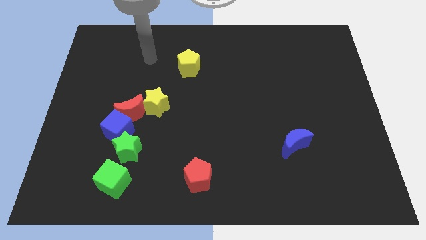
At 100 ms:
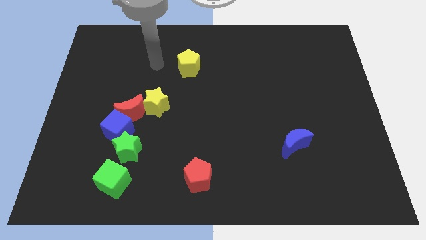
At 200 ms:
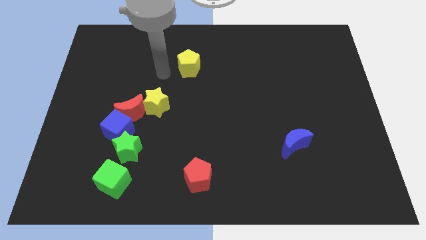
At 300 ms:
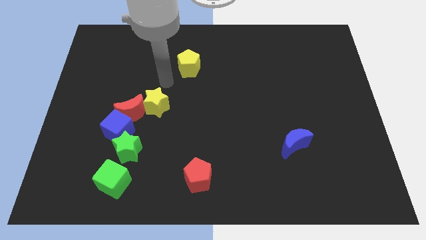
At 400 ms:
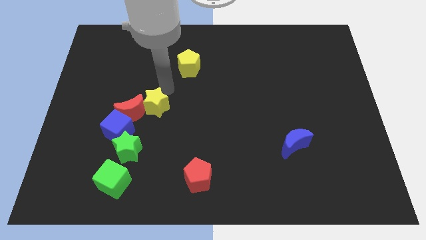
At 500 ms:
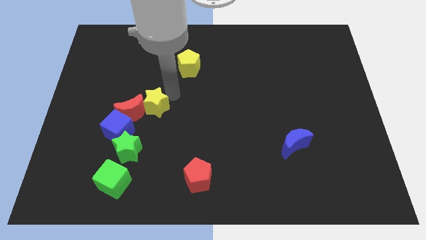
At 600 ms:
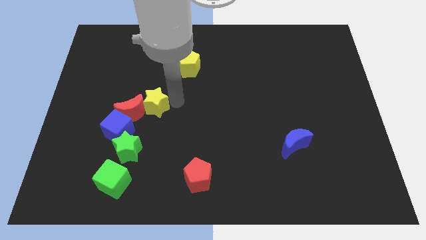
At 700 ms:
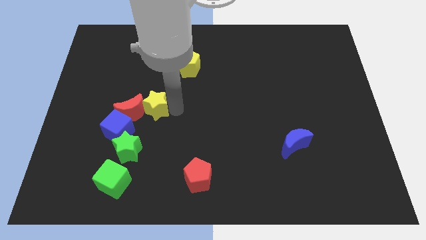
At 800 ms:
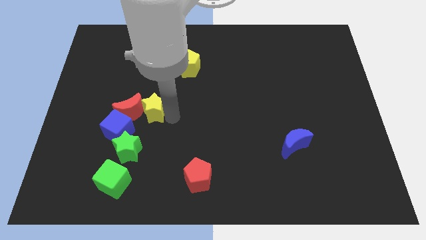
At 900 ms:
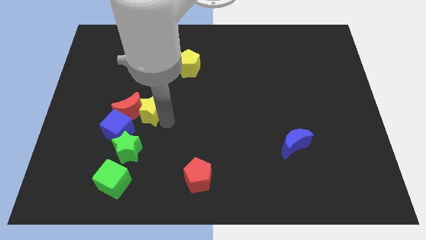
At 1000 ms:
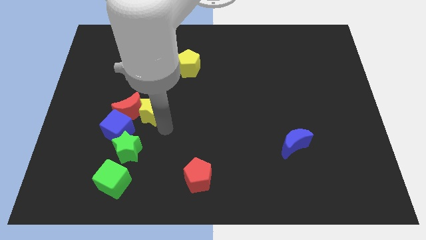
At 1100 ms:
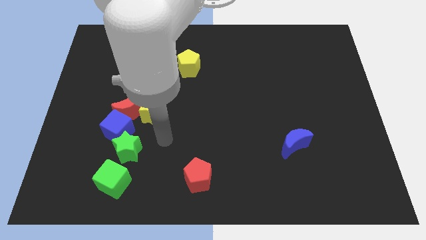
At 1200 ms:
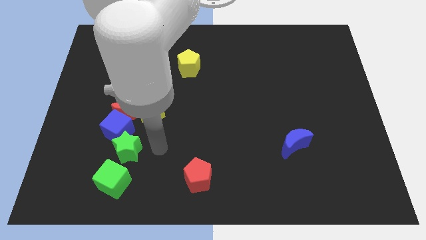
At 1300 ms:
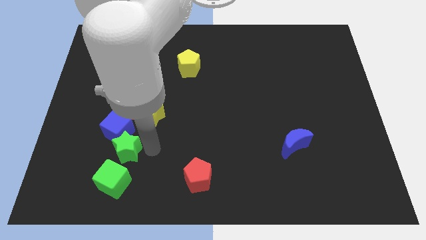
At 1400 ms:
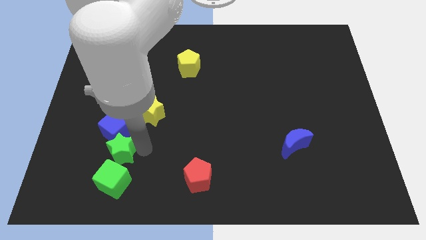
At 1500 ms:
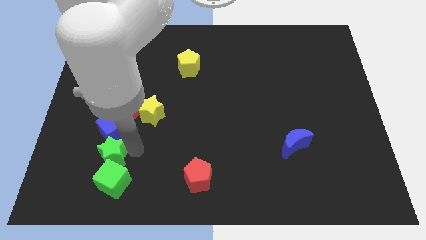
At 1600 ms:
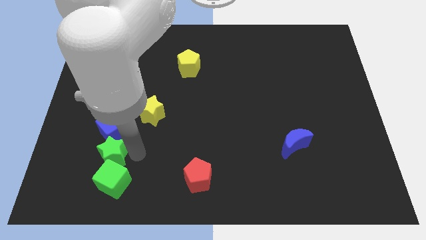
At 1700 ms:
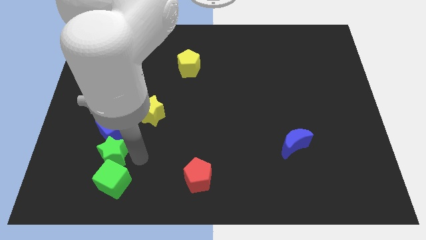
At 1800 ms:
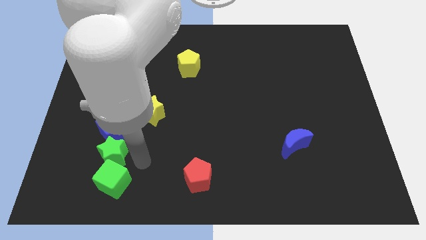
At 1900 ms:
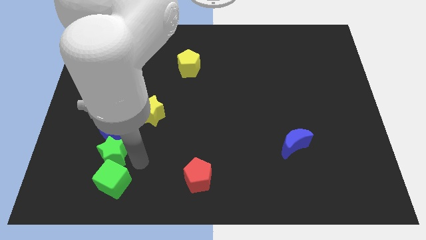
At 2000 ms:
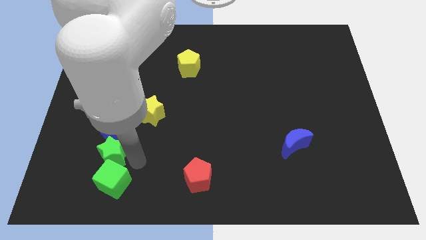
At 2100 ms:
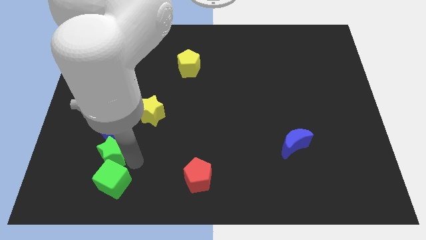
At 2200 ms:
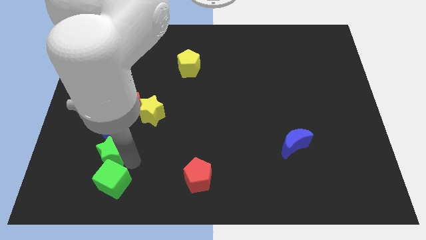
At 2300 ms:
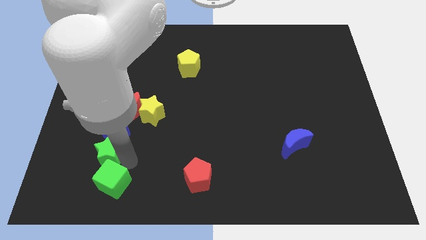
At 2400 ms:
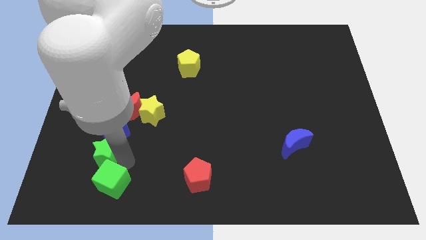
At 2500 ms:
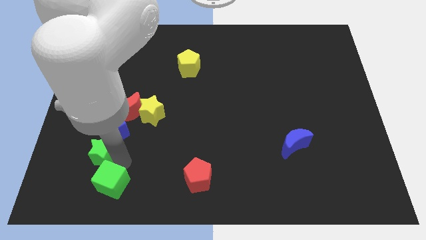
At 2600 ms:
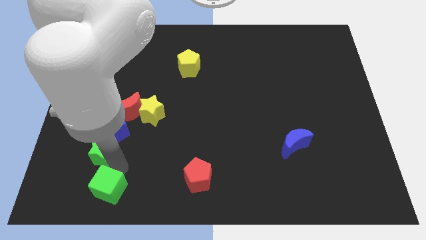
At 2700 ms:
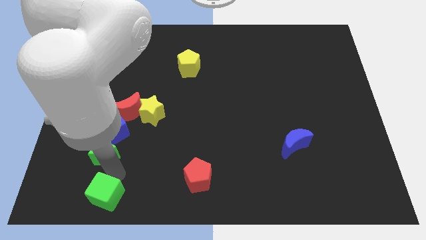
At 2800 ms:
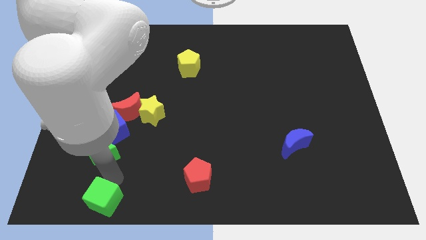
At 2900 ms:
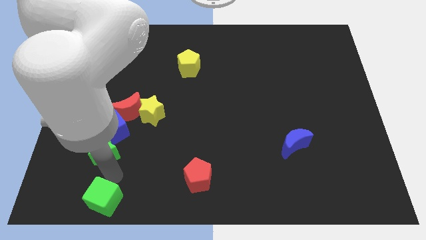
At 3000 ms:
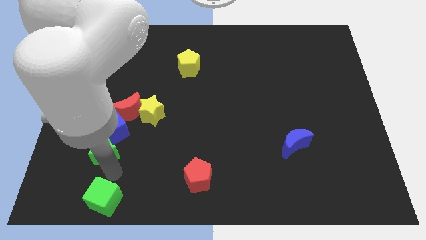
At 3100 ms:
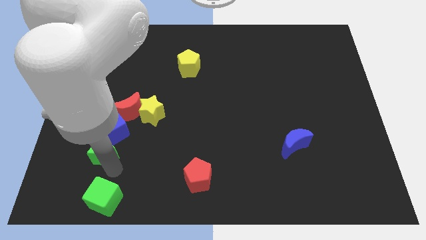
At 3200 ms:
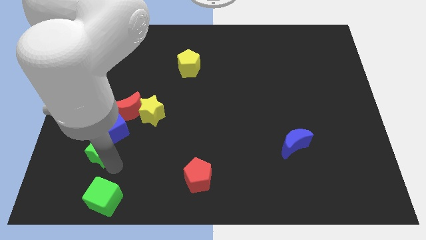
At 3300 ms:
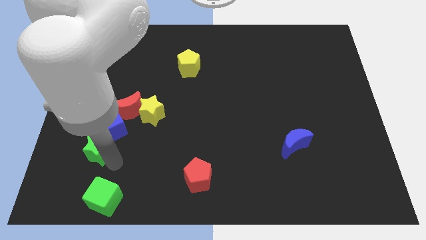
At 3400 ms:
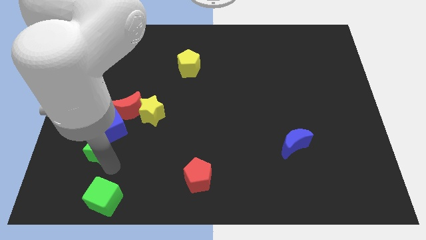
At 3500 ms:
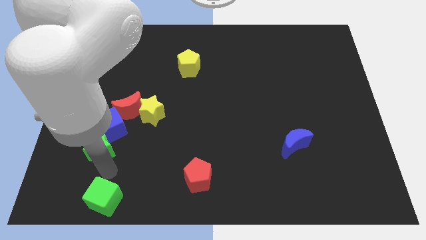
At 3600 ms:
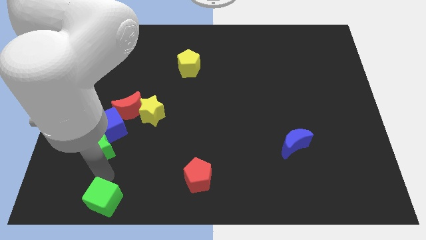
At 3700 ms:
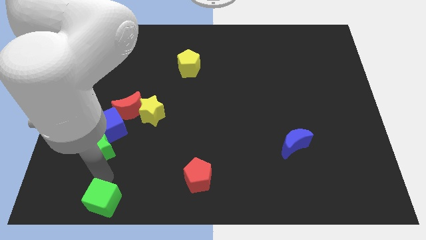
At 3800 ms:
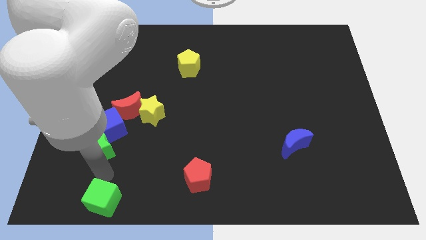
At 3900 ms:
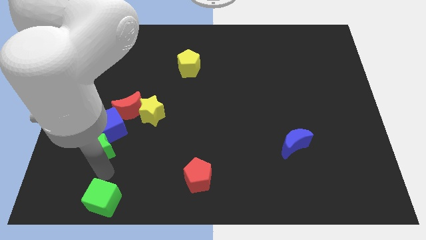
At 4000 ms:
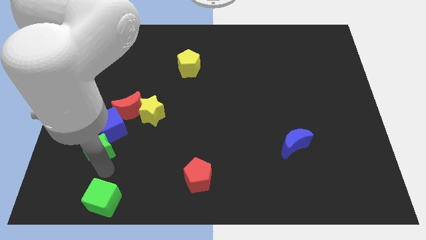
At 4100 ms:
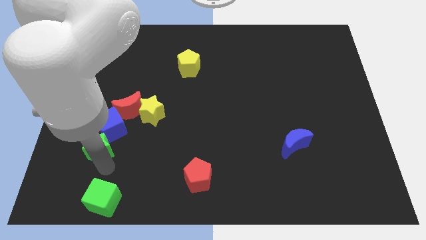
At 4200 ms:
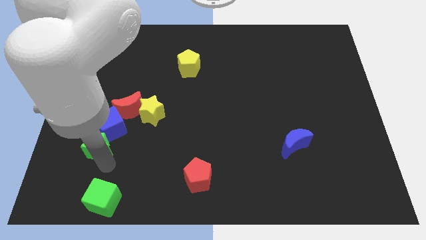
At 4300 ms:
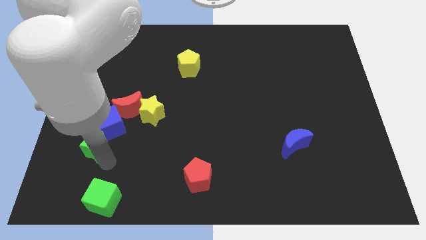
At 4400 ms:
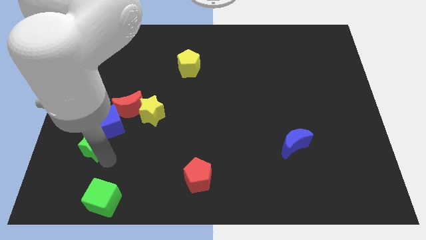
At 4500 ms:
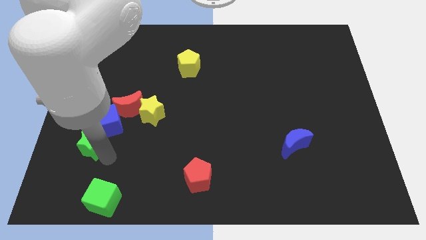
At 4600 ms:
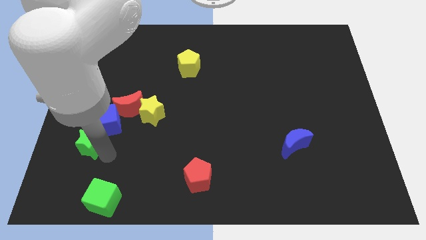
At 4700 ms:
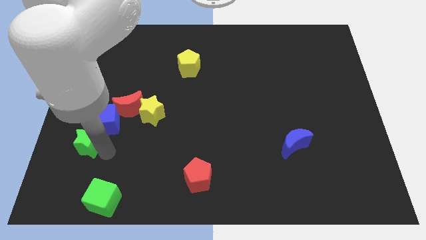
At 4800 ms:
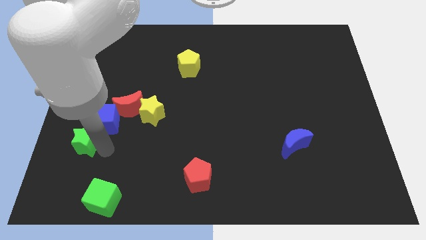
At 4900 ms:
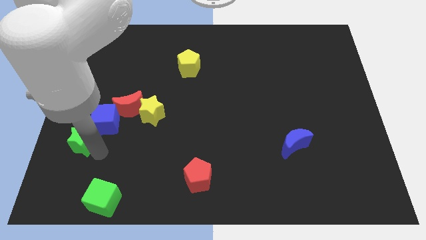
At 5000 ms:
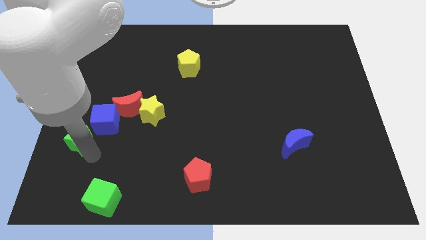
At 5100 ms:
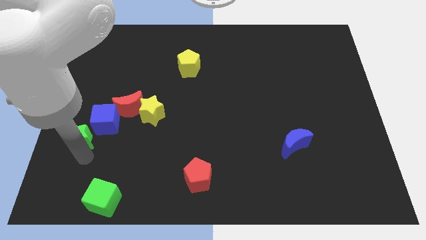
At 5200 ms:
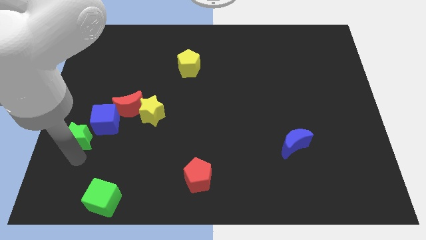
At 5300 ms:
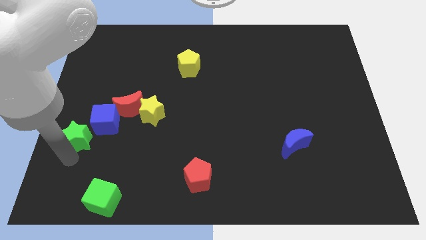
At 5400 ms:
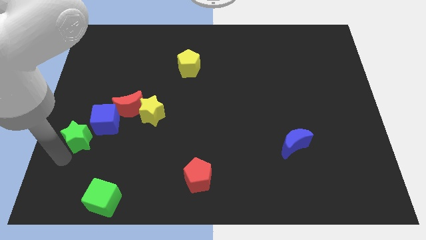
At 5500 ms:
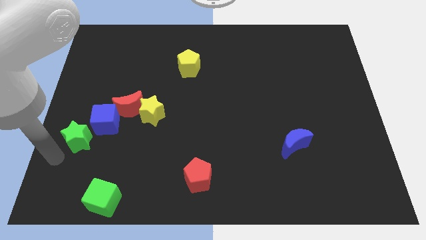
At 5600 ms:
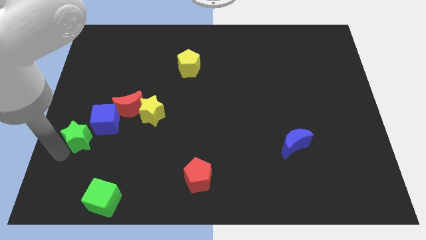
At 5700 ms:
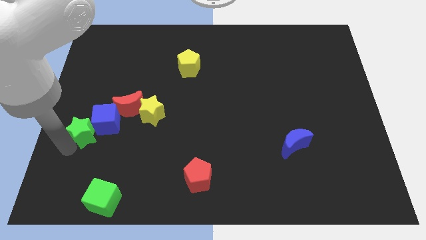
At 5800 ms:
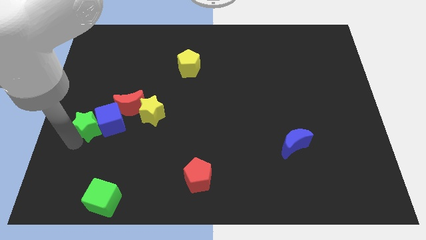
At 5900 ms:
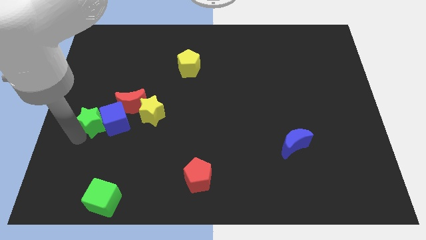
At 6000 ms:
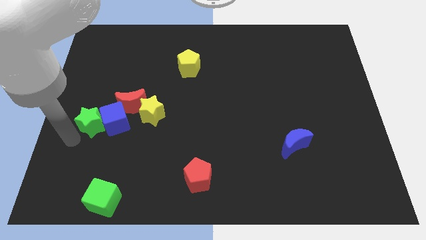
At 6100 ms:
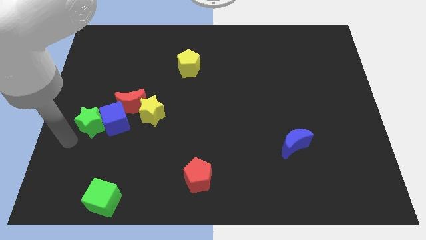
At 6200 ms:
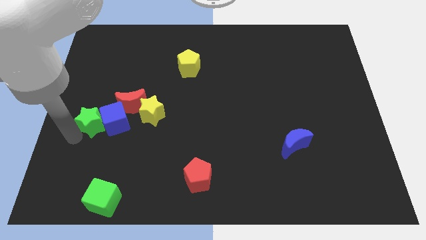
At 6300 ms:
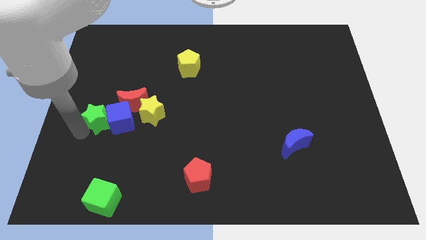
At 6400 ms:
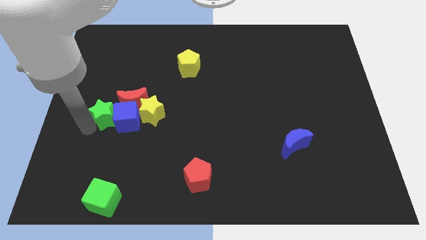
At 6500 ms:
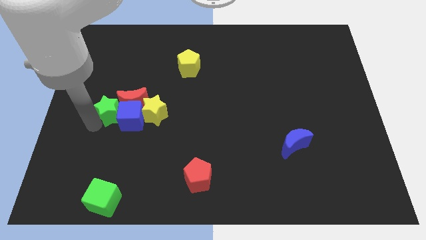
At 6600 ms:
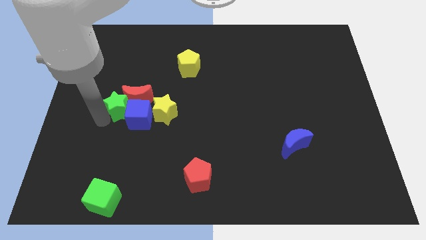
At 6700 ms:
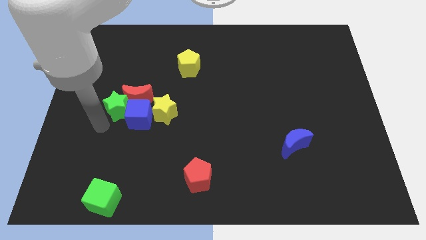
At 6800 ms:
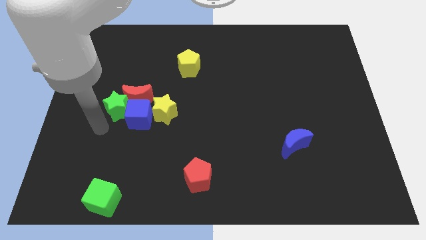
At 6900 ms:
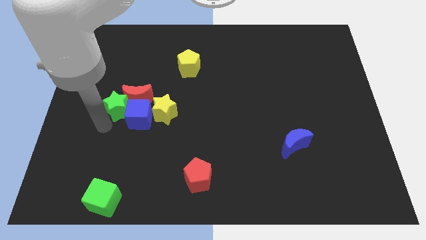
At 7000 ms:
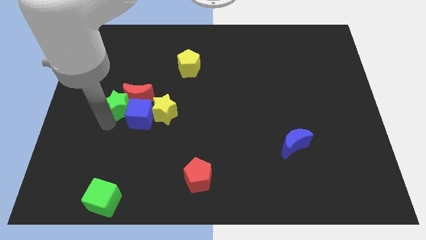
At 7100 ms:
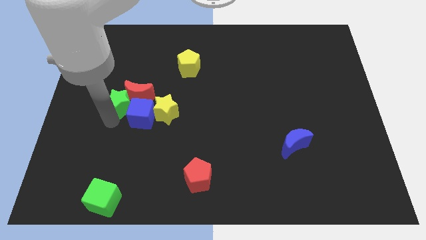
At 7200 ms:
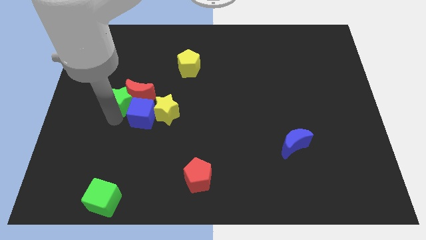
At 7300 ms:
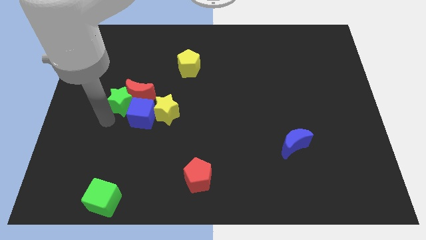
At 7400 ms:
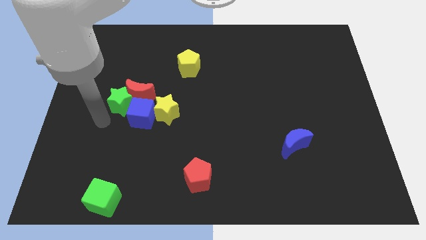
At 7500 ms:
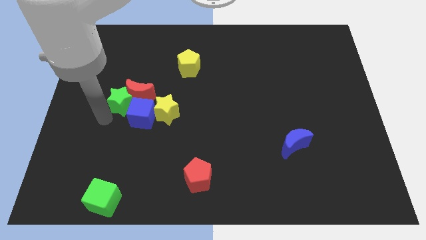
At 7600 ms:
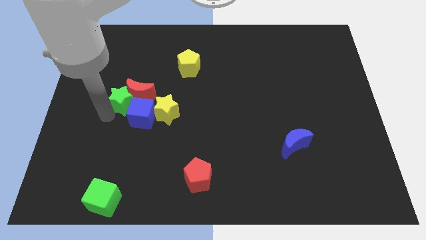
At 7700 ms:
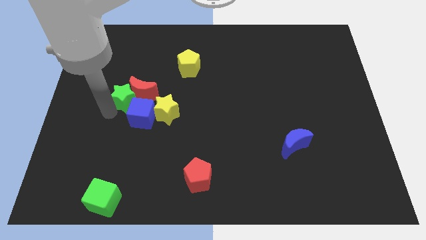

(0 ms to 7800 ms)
put the green star to the top of the blue cube

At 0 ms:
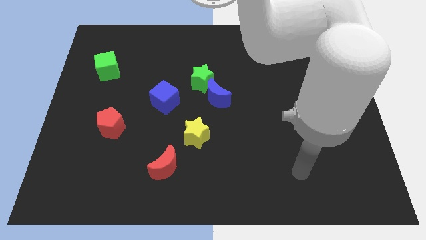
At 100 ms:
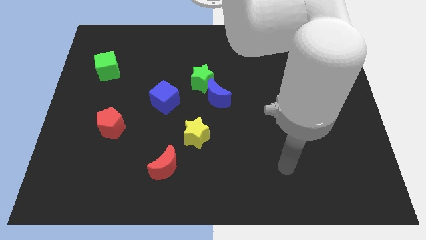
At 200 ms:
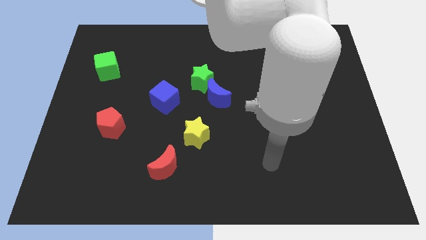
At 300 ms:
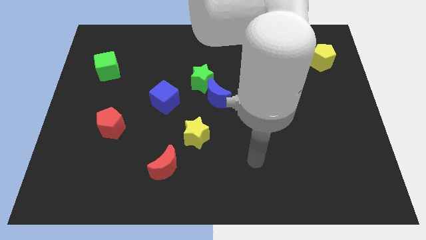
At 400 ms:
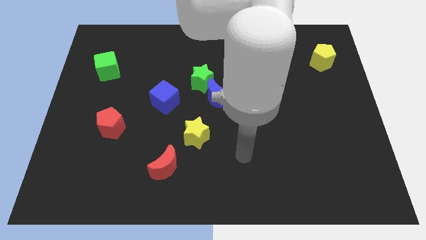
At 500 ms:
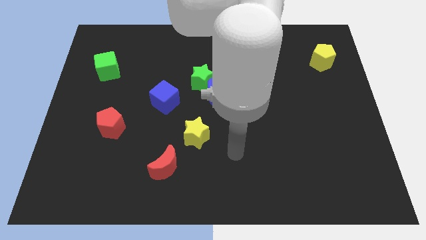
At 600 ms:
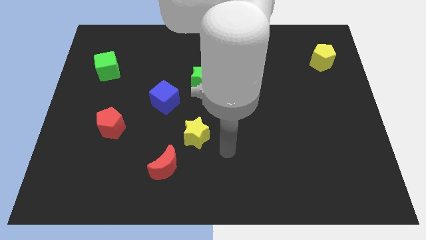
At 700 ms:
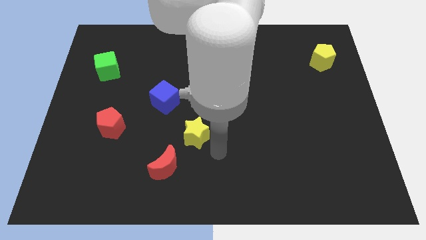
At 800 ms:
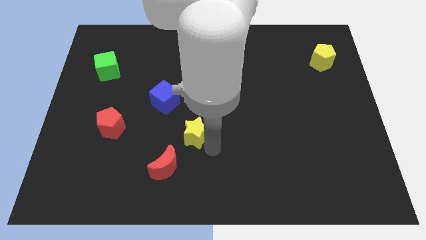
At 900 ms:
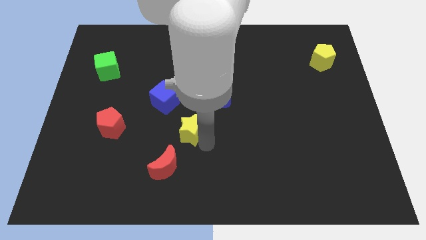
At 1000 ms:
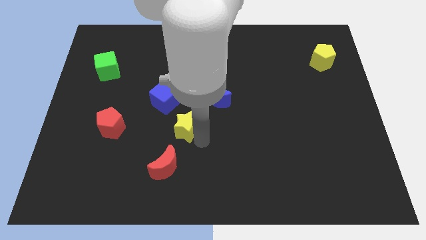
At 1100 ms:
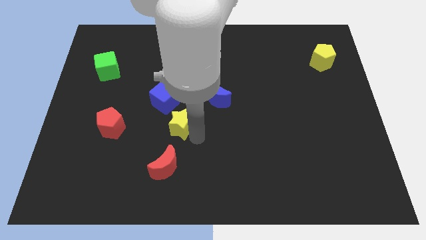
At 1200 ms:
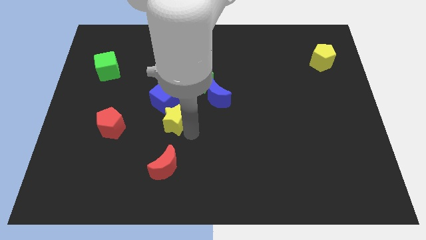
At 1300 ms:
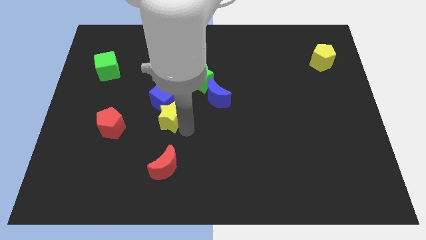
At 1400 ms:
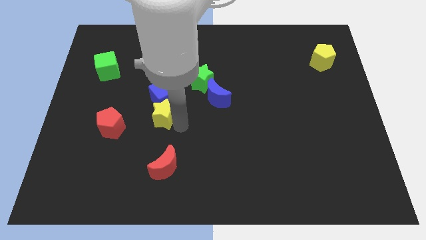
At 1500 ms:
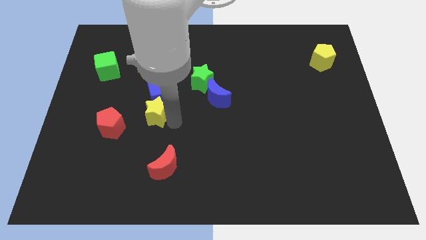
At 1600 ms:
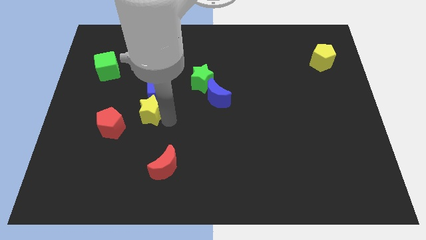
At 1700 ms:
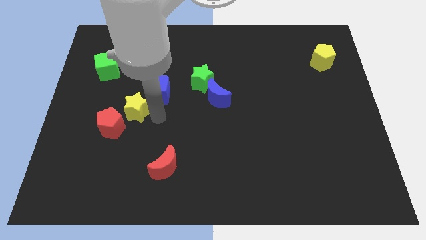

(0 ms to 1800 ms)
move the yellow star above the red pentagon
